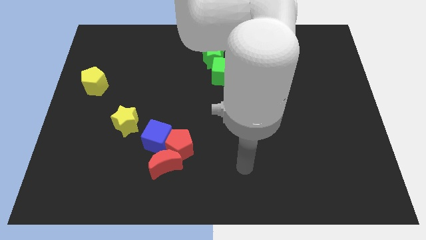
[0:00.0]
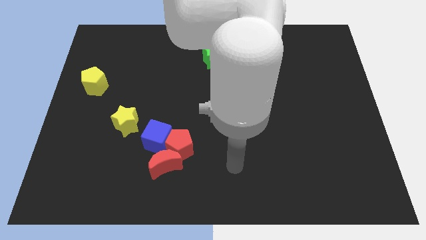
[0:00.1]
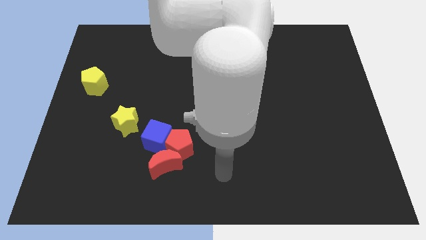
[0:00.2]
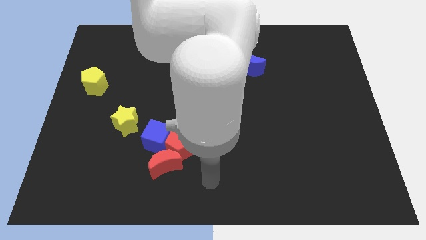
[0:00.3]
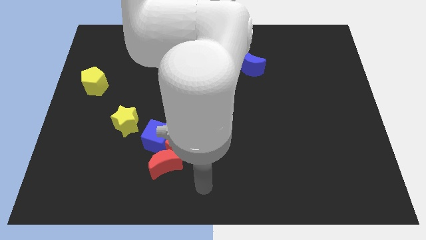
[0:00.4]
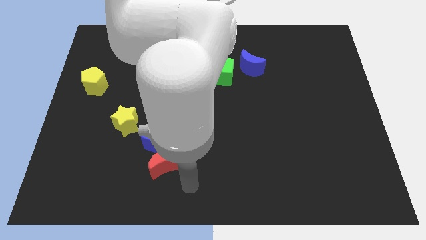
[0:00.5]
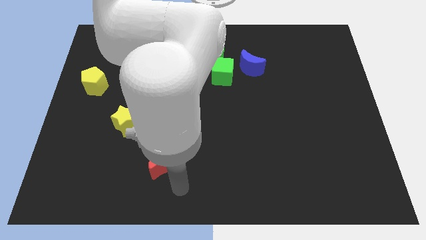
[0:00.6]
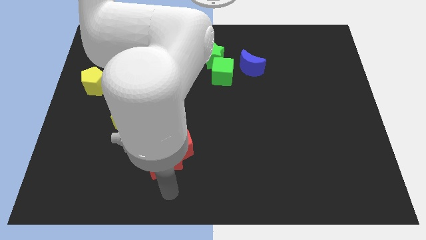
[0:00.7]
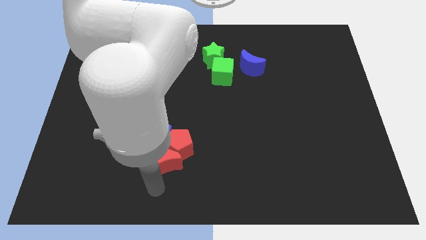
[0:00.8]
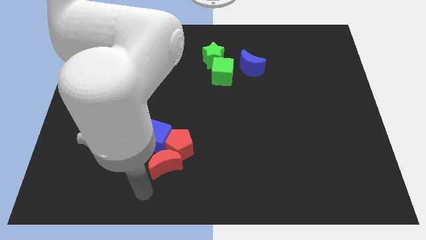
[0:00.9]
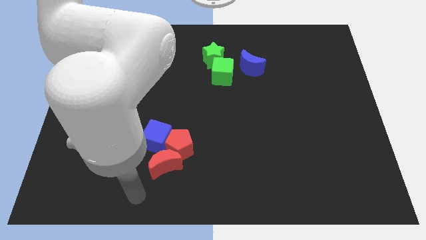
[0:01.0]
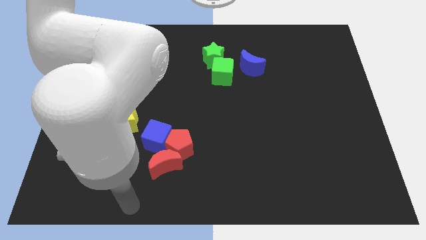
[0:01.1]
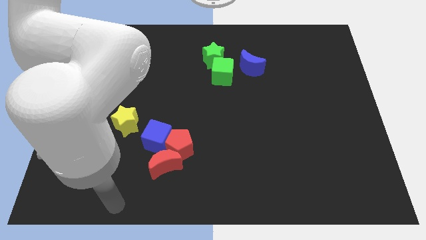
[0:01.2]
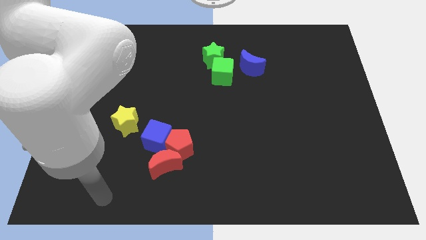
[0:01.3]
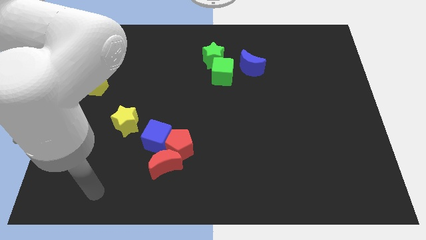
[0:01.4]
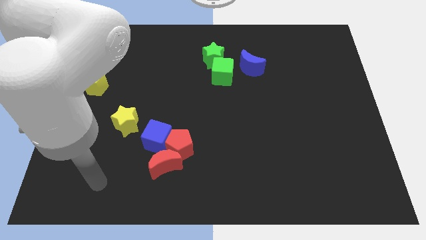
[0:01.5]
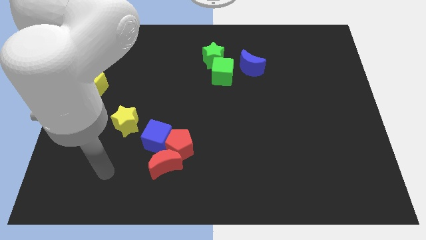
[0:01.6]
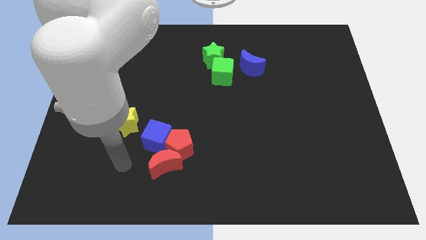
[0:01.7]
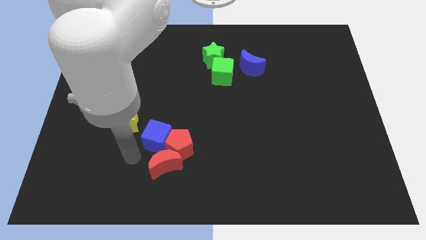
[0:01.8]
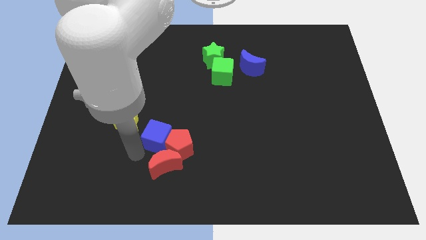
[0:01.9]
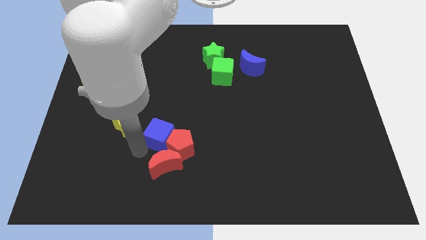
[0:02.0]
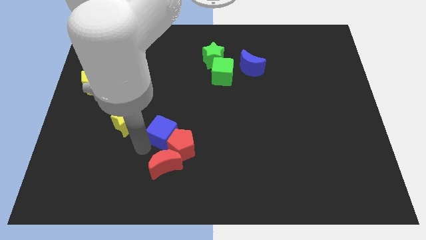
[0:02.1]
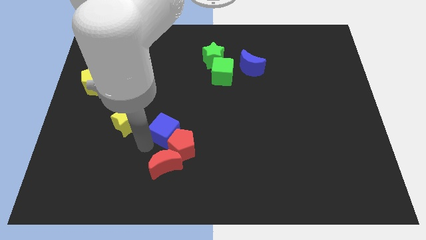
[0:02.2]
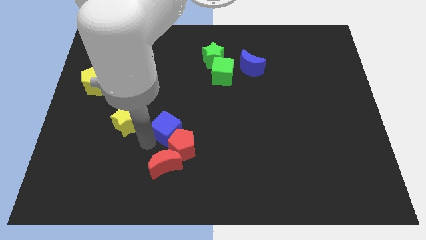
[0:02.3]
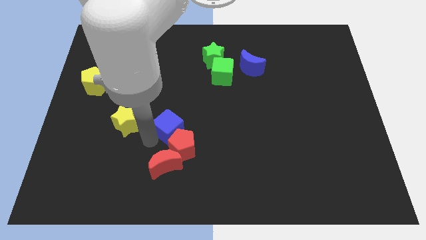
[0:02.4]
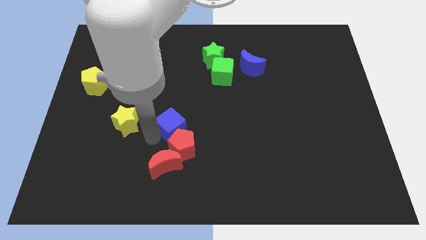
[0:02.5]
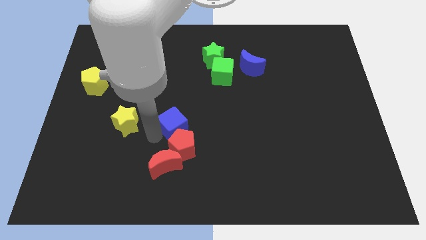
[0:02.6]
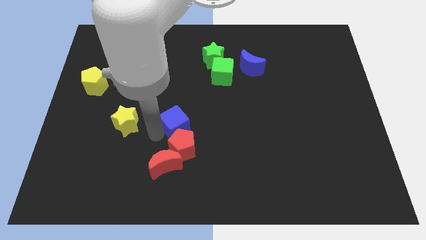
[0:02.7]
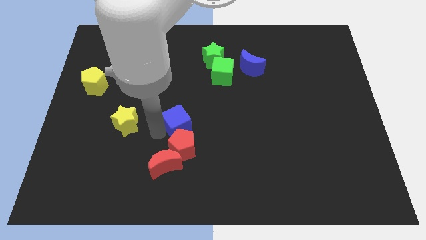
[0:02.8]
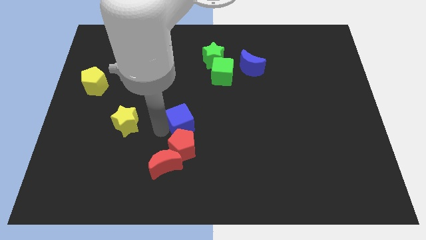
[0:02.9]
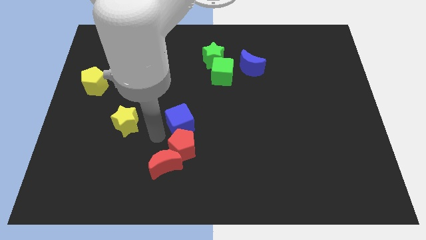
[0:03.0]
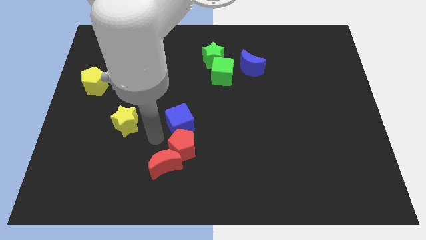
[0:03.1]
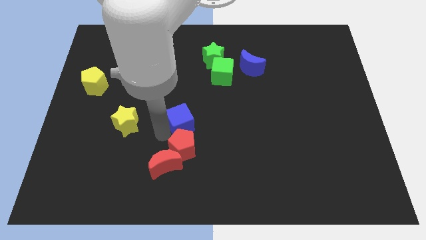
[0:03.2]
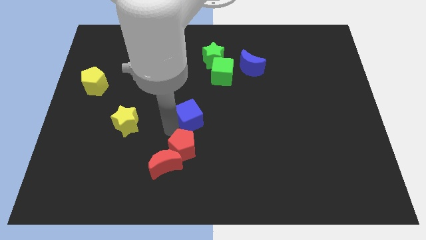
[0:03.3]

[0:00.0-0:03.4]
slightly push the blue cube upwards and then right

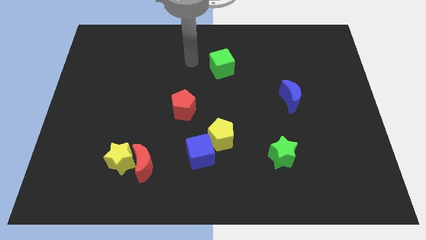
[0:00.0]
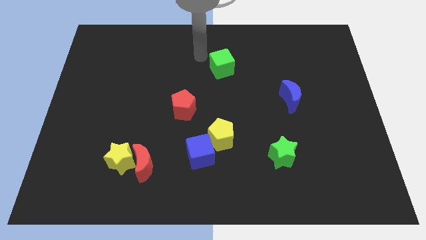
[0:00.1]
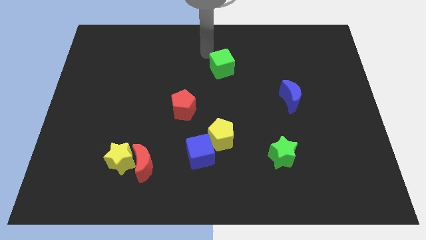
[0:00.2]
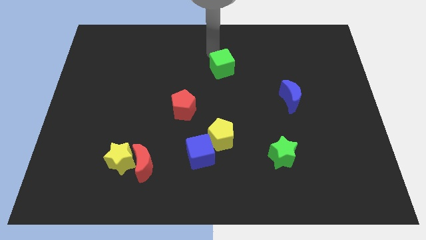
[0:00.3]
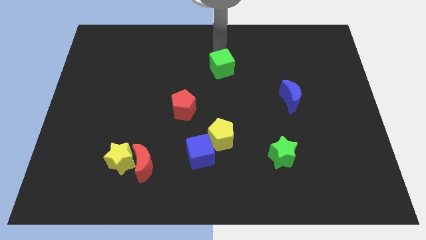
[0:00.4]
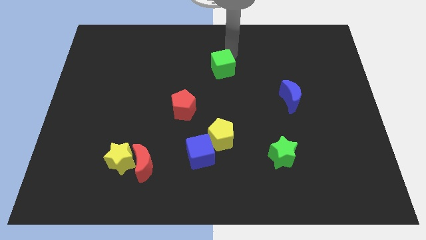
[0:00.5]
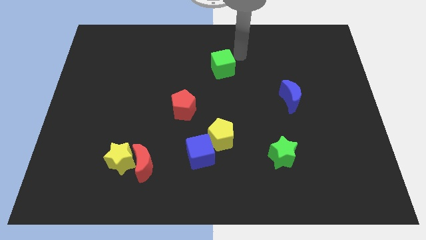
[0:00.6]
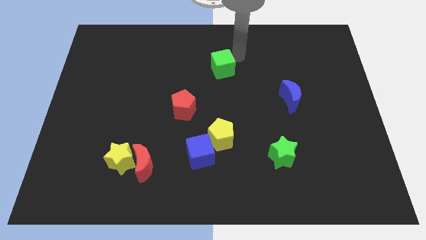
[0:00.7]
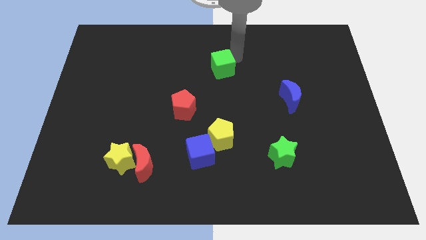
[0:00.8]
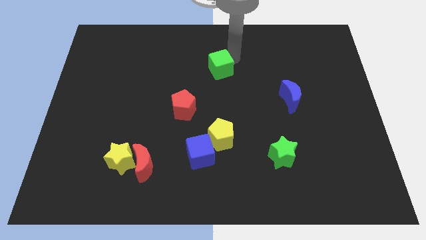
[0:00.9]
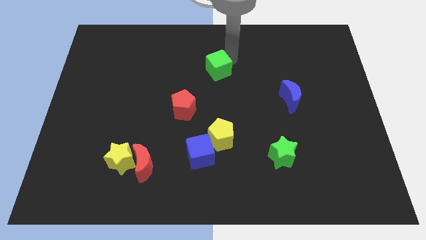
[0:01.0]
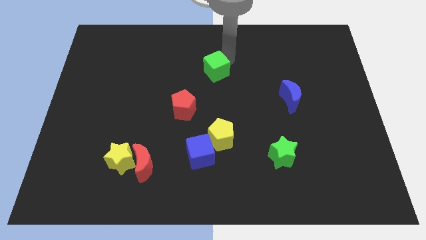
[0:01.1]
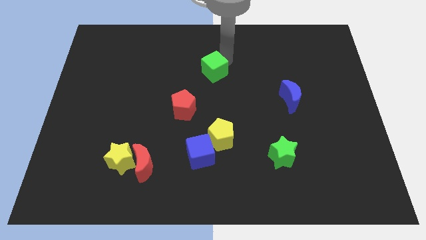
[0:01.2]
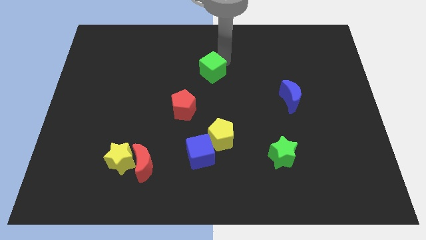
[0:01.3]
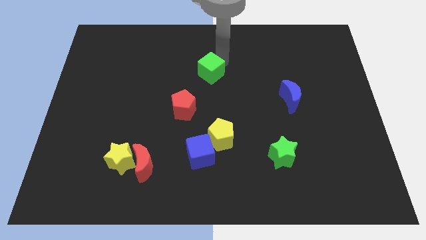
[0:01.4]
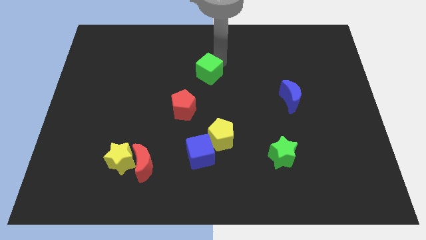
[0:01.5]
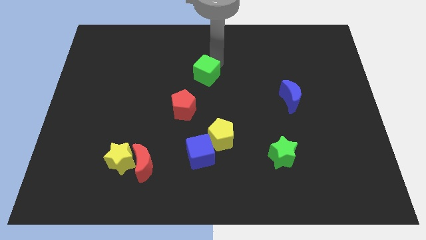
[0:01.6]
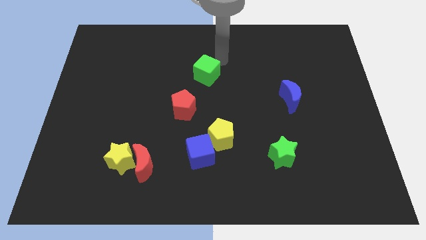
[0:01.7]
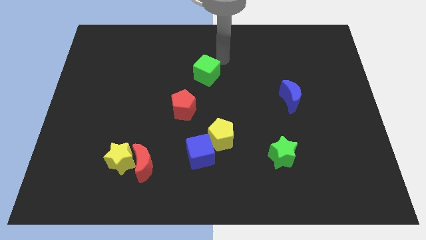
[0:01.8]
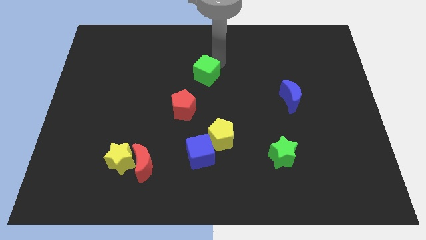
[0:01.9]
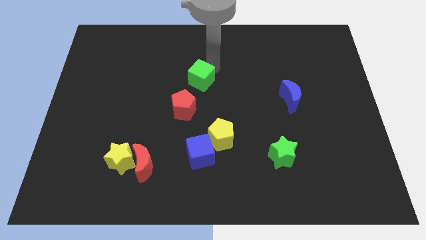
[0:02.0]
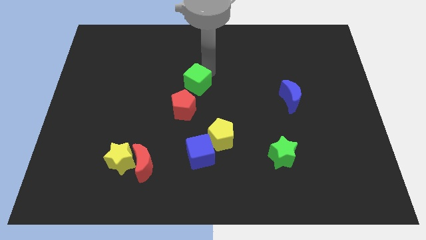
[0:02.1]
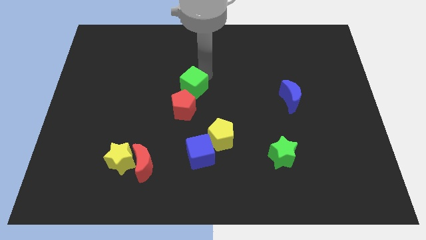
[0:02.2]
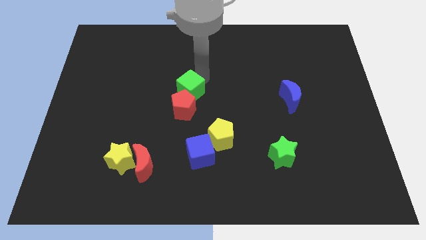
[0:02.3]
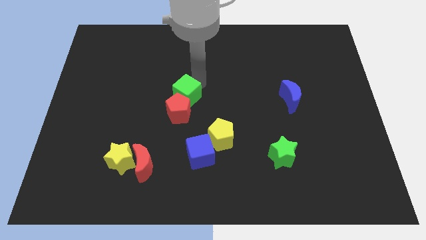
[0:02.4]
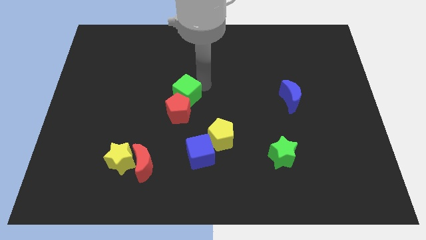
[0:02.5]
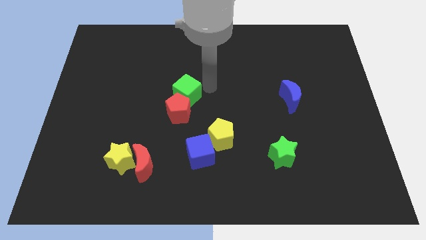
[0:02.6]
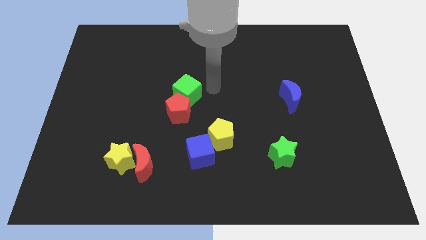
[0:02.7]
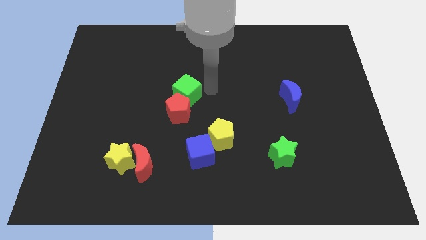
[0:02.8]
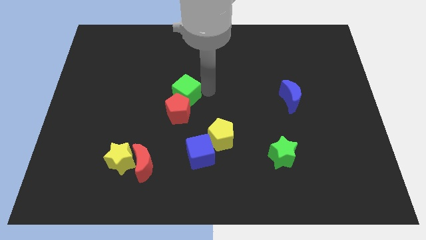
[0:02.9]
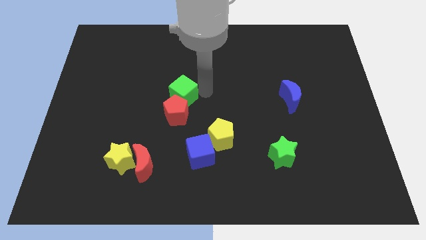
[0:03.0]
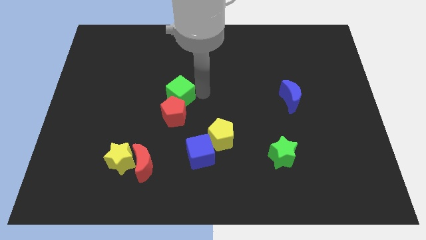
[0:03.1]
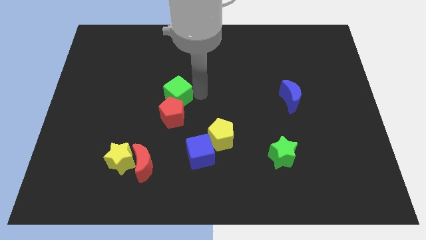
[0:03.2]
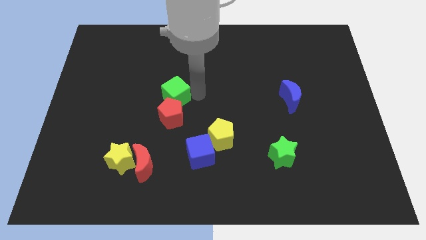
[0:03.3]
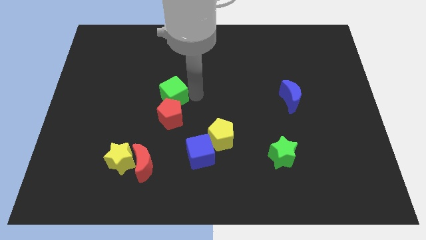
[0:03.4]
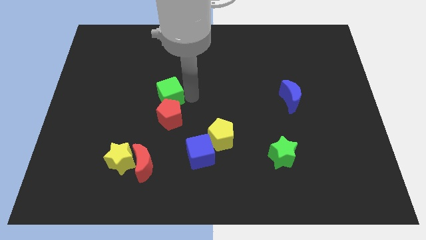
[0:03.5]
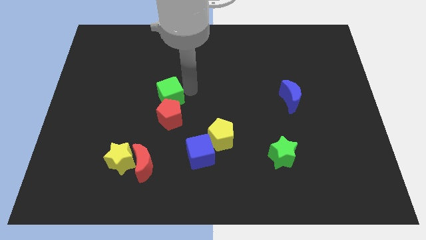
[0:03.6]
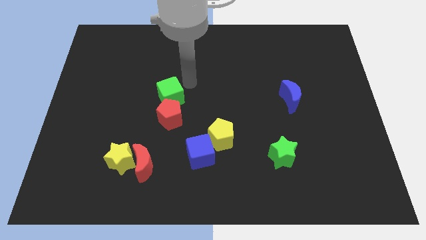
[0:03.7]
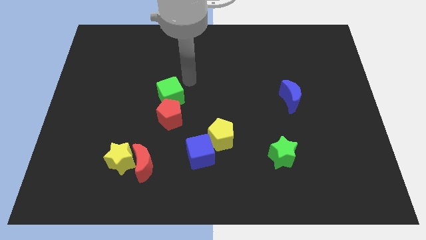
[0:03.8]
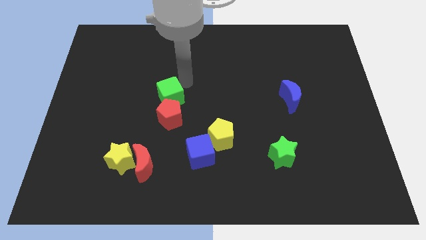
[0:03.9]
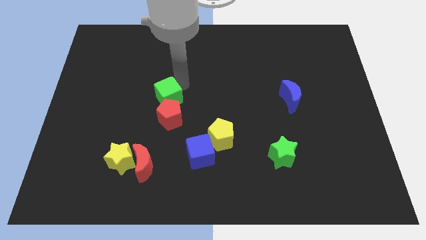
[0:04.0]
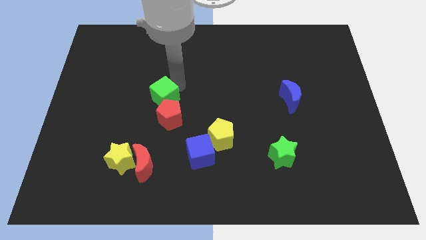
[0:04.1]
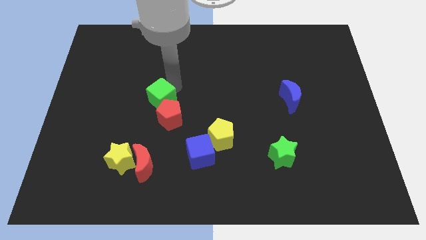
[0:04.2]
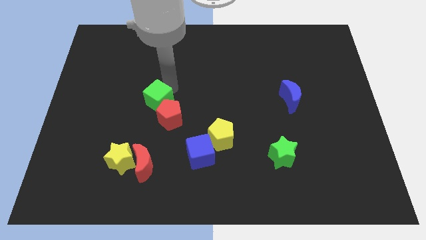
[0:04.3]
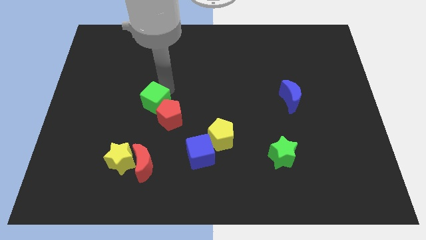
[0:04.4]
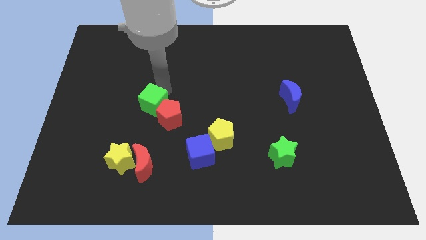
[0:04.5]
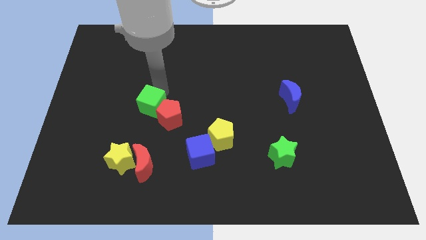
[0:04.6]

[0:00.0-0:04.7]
move the green cube downwards and to the left
